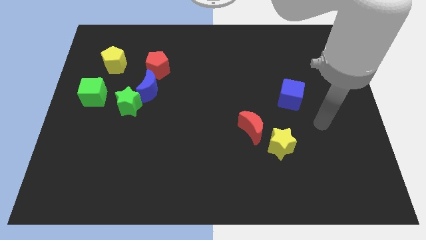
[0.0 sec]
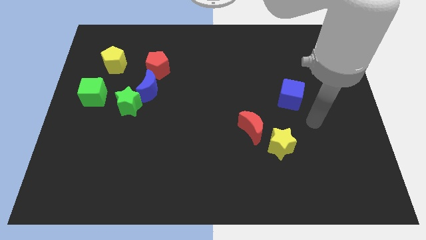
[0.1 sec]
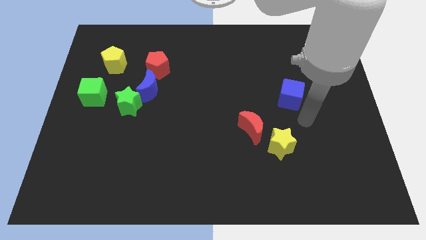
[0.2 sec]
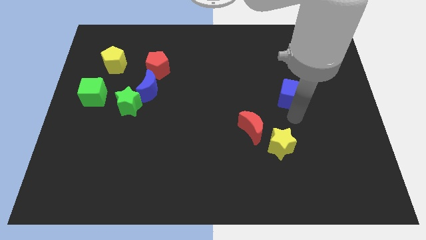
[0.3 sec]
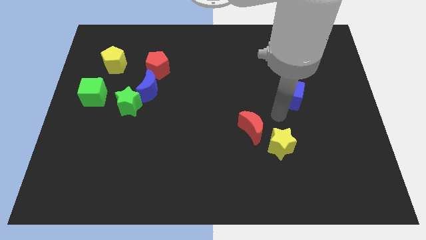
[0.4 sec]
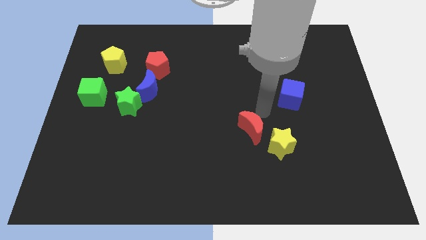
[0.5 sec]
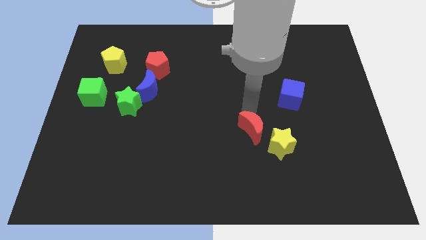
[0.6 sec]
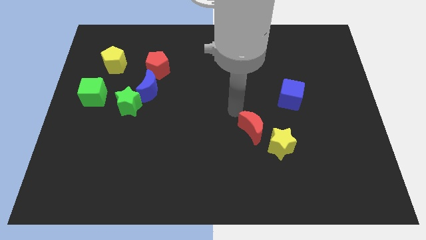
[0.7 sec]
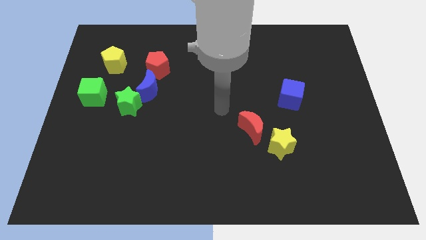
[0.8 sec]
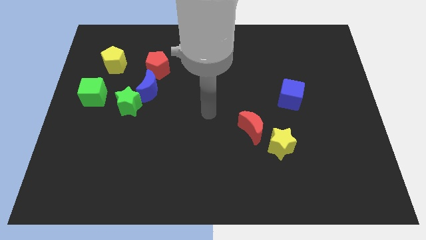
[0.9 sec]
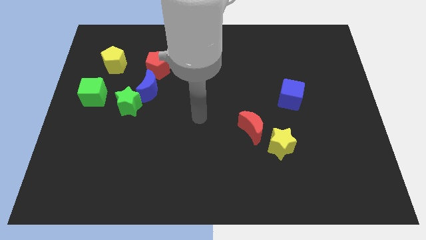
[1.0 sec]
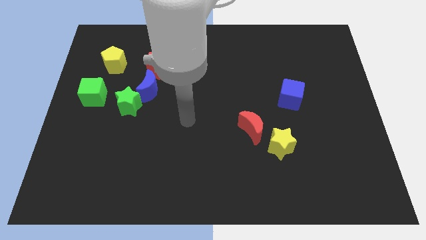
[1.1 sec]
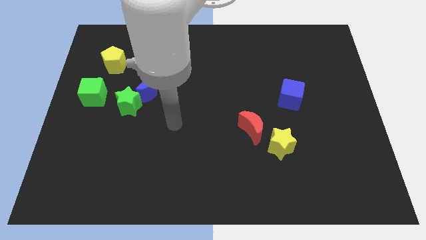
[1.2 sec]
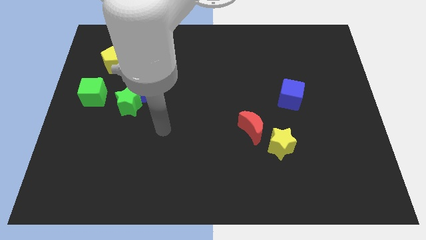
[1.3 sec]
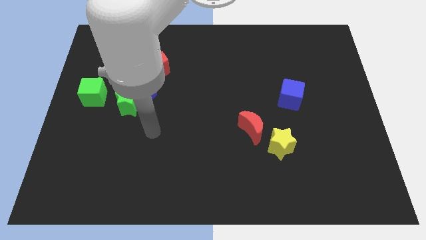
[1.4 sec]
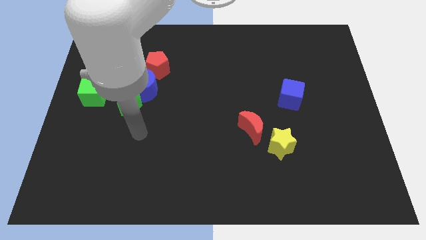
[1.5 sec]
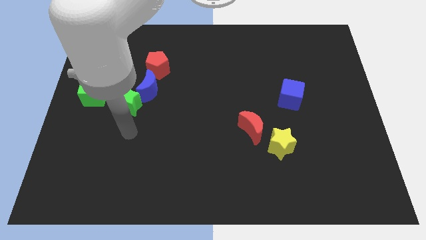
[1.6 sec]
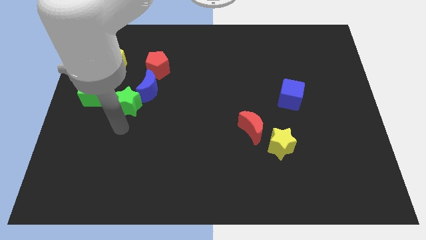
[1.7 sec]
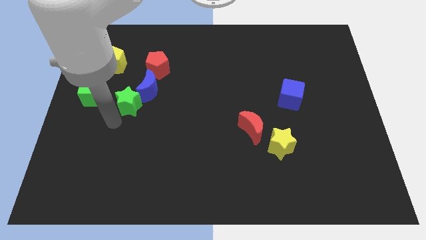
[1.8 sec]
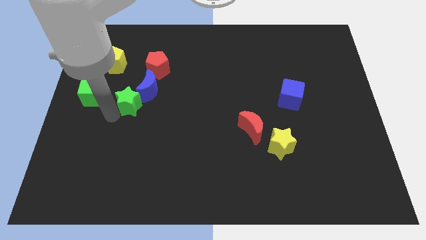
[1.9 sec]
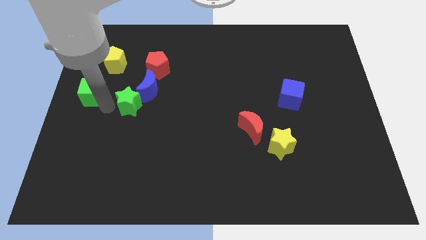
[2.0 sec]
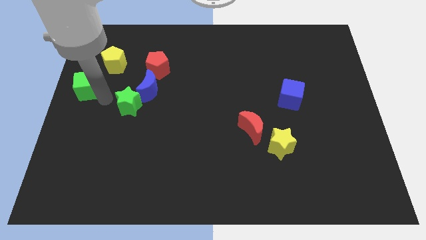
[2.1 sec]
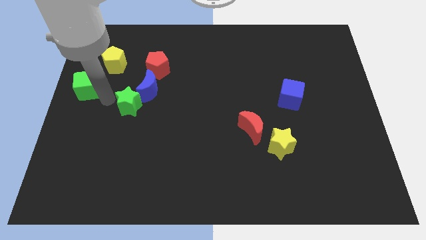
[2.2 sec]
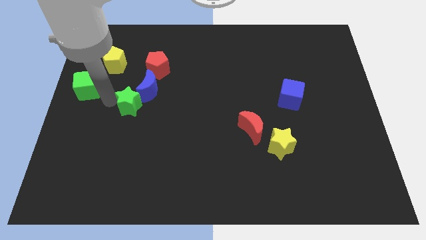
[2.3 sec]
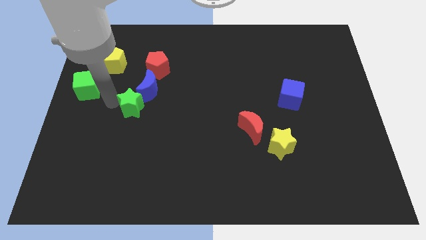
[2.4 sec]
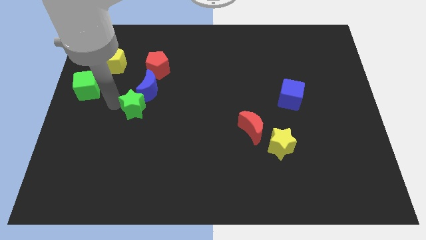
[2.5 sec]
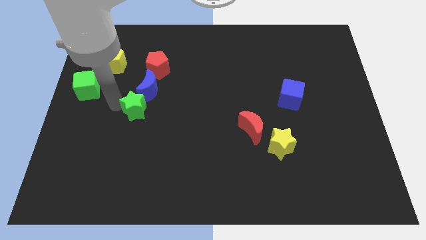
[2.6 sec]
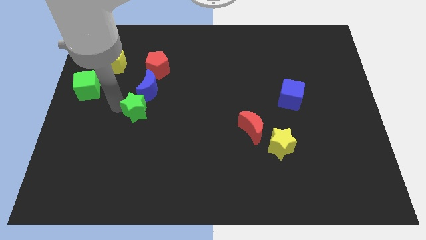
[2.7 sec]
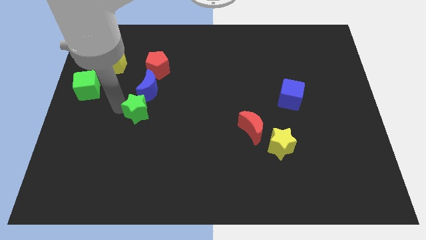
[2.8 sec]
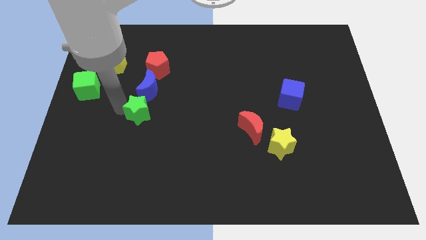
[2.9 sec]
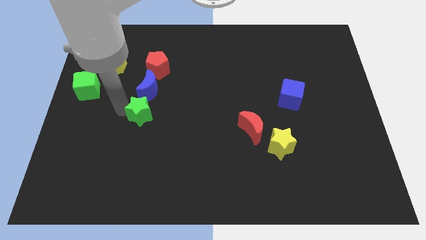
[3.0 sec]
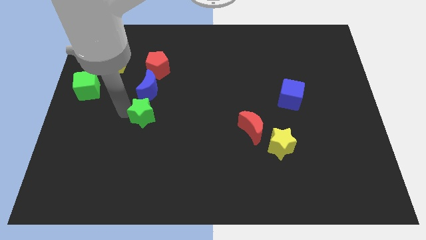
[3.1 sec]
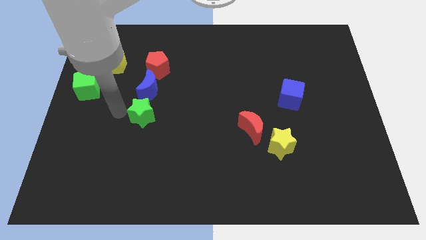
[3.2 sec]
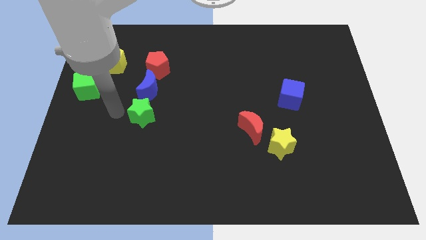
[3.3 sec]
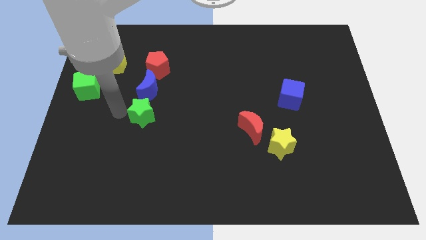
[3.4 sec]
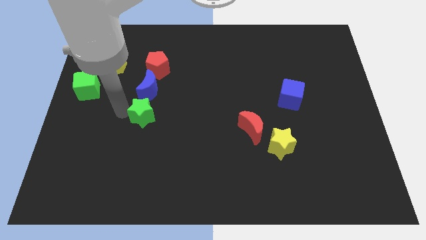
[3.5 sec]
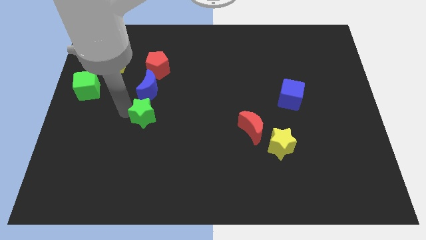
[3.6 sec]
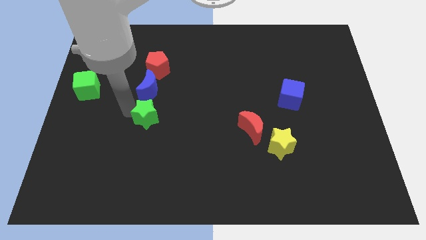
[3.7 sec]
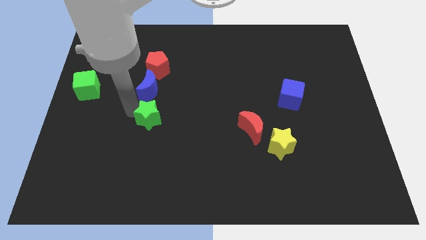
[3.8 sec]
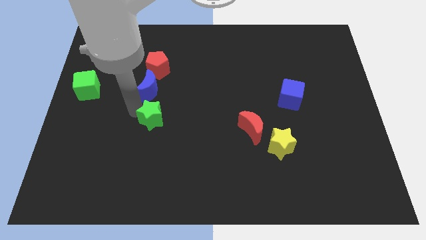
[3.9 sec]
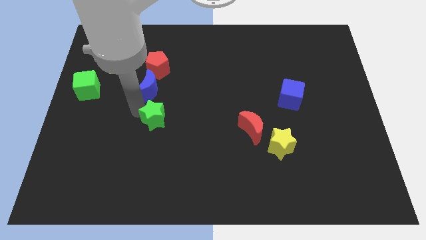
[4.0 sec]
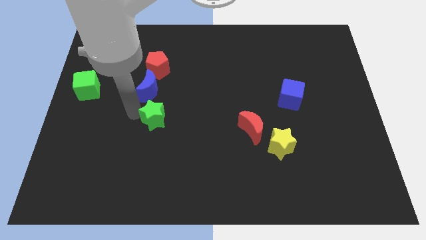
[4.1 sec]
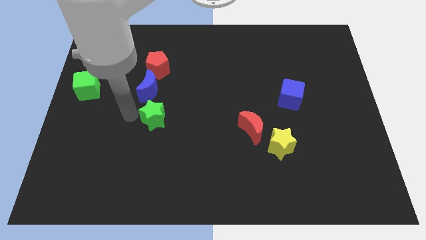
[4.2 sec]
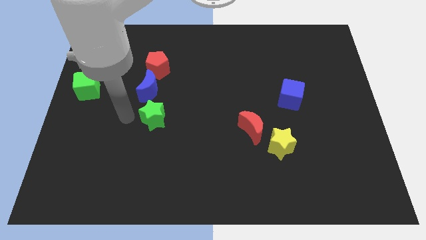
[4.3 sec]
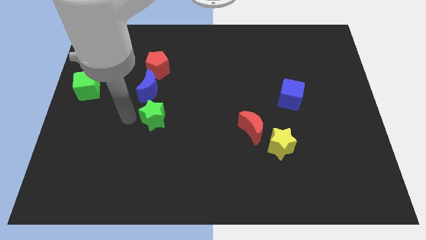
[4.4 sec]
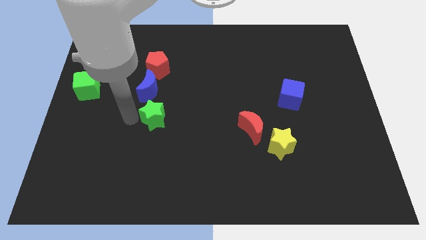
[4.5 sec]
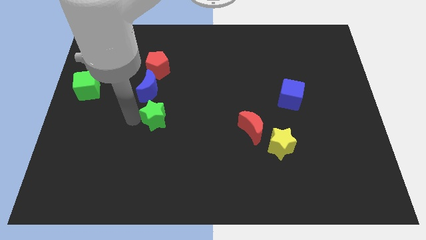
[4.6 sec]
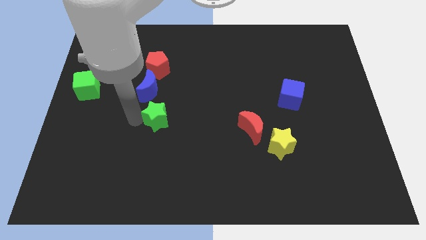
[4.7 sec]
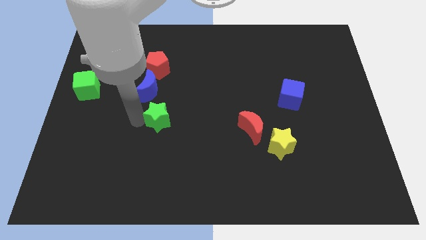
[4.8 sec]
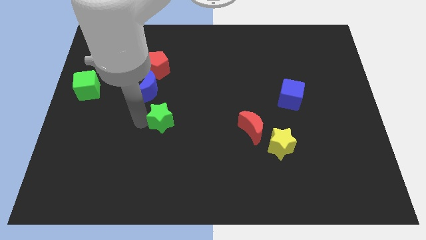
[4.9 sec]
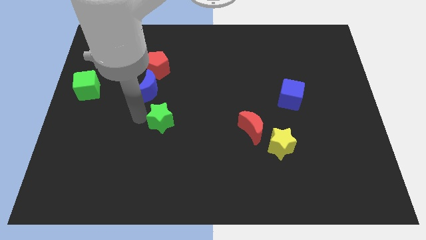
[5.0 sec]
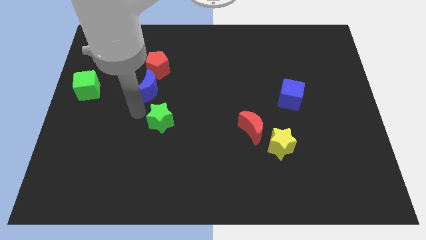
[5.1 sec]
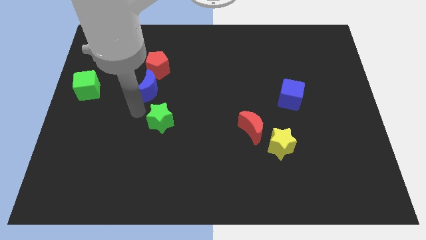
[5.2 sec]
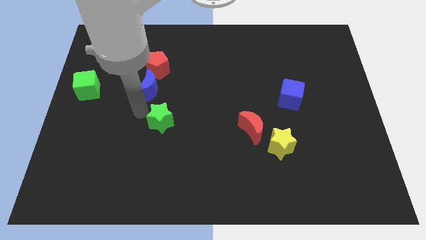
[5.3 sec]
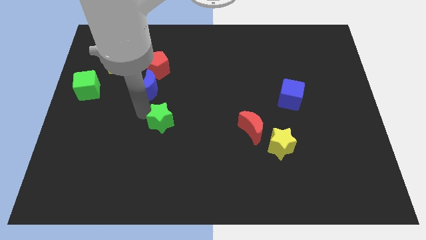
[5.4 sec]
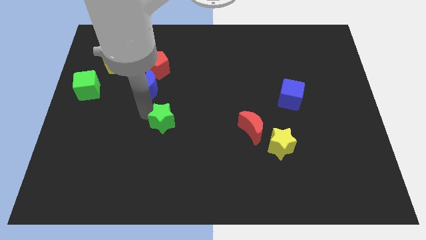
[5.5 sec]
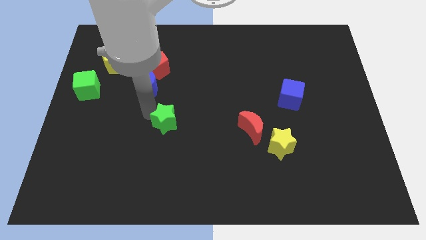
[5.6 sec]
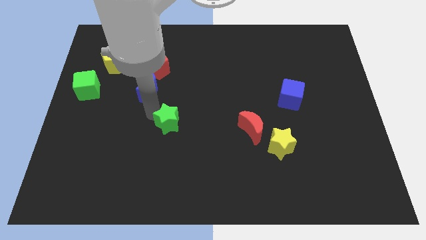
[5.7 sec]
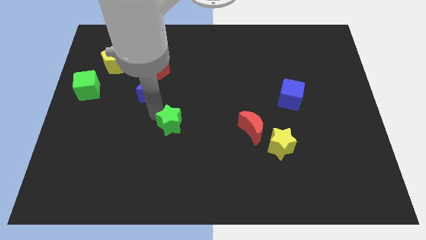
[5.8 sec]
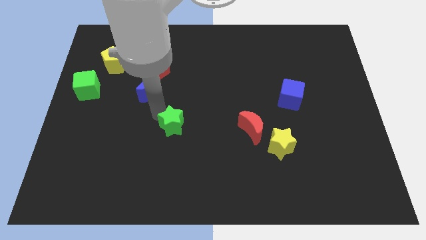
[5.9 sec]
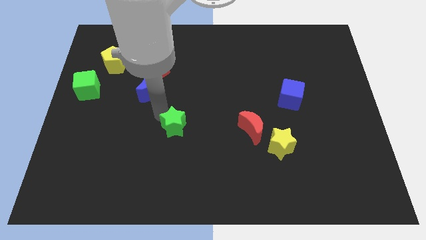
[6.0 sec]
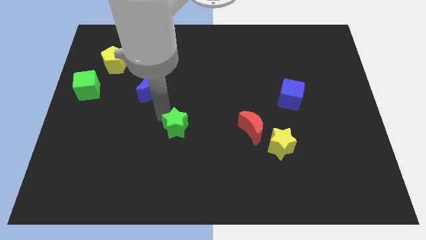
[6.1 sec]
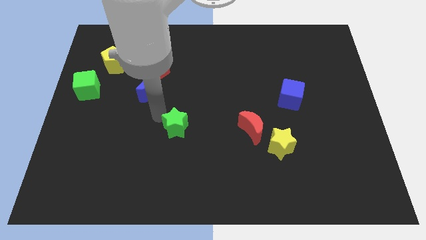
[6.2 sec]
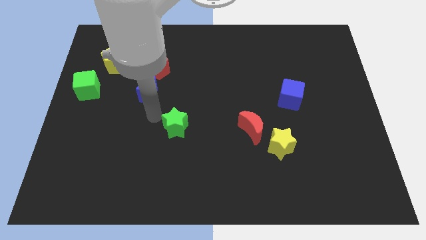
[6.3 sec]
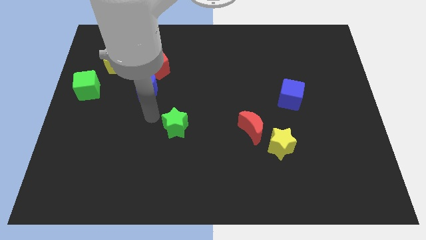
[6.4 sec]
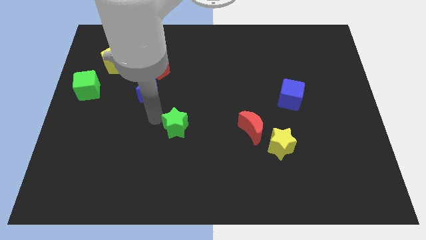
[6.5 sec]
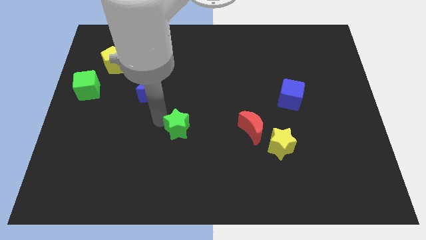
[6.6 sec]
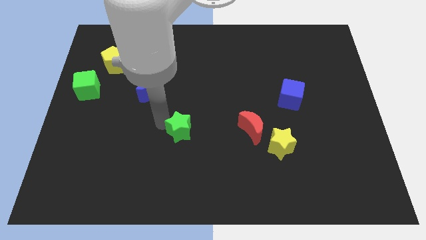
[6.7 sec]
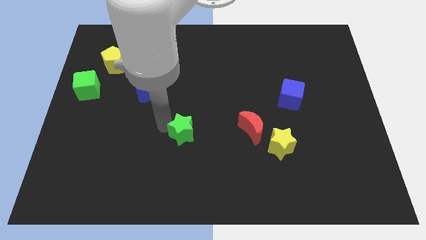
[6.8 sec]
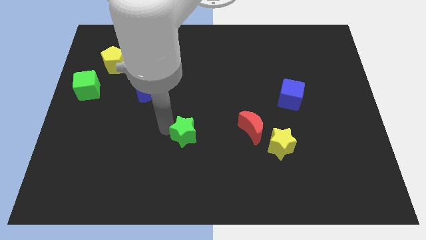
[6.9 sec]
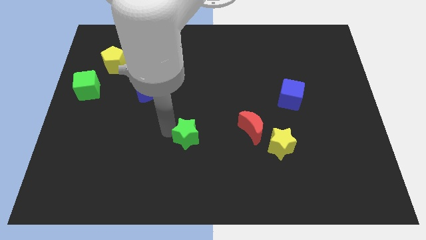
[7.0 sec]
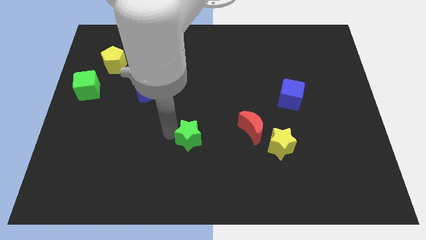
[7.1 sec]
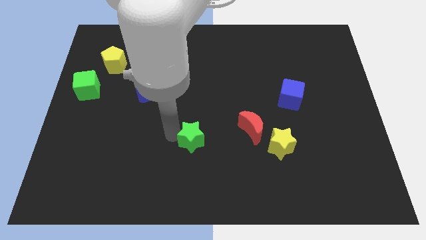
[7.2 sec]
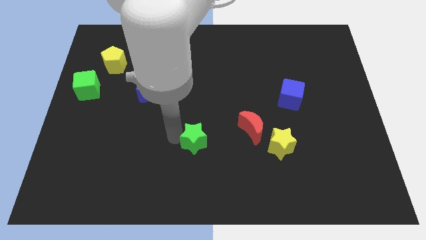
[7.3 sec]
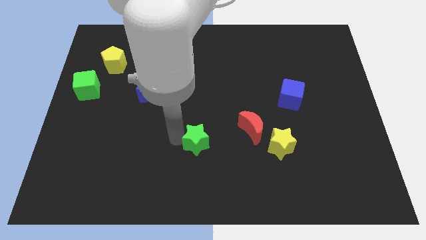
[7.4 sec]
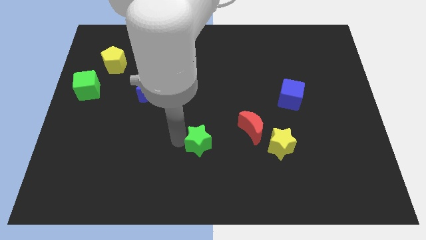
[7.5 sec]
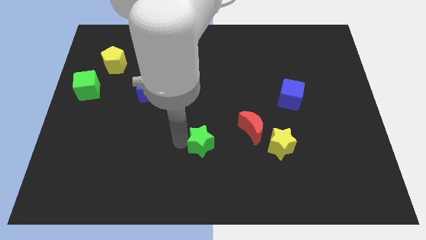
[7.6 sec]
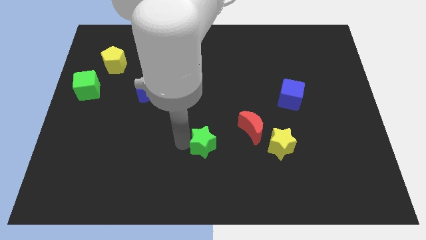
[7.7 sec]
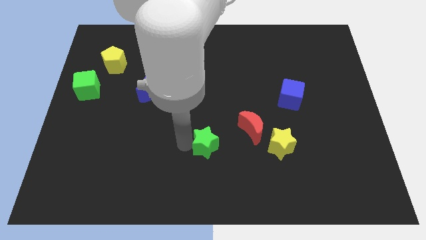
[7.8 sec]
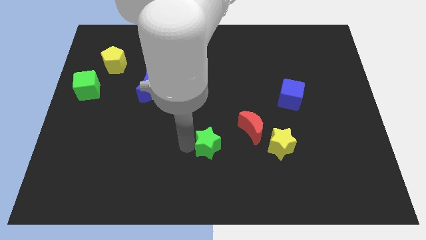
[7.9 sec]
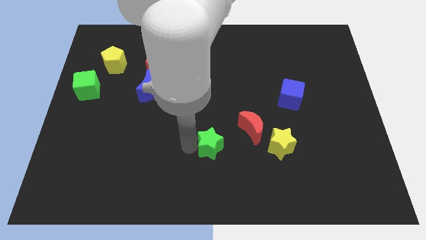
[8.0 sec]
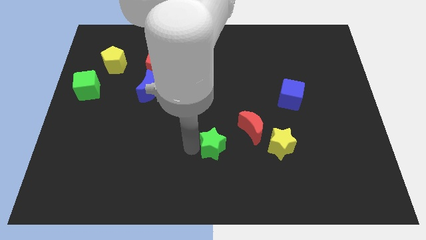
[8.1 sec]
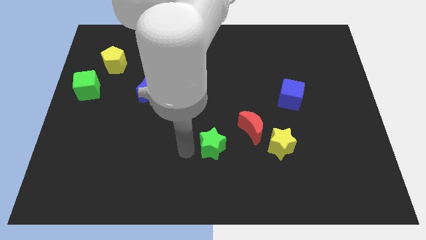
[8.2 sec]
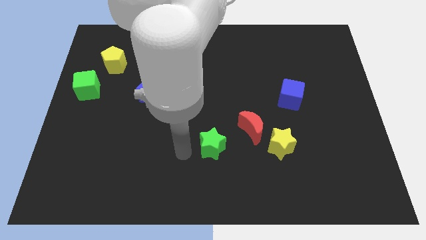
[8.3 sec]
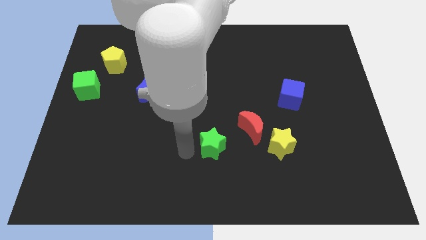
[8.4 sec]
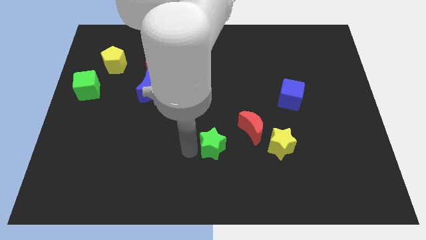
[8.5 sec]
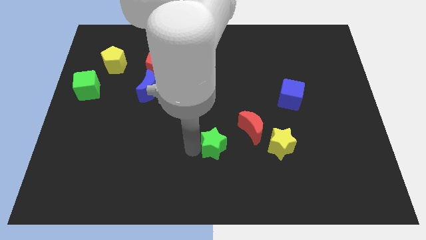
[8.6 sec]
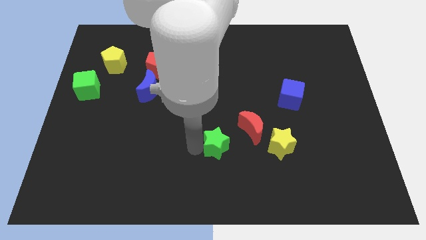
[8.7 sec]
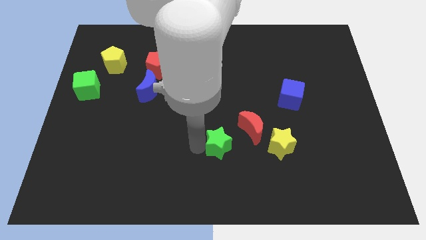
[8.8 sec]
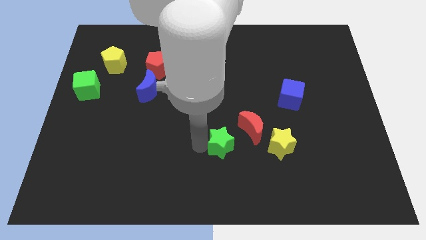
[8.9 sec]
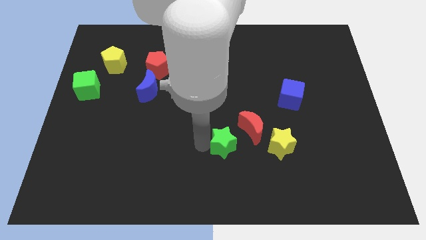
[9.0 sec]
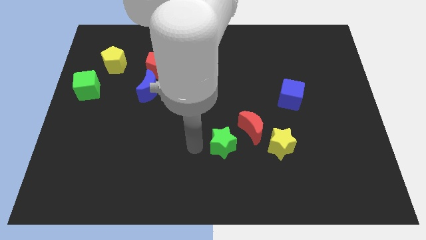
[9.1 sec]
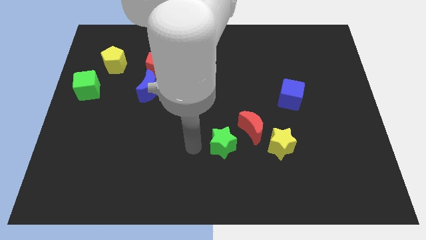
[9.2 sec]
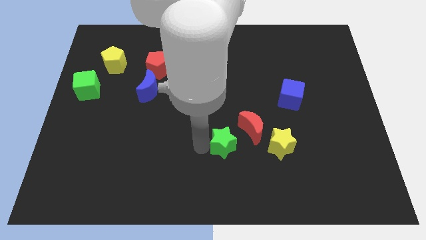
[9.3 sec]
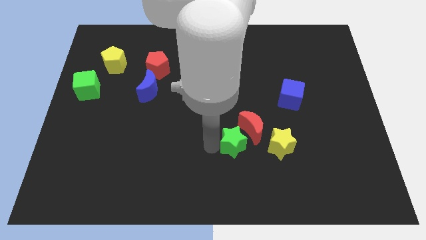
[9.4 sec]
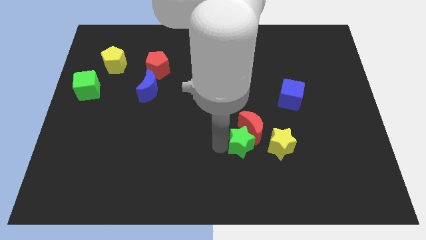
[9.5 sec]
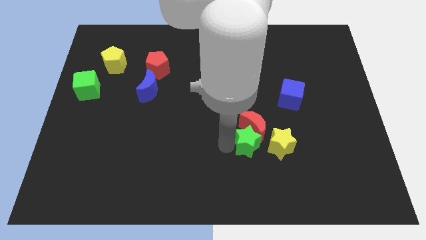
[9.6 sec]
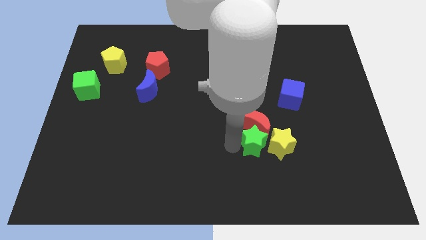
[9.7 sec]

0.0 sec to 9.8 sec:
push the green star towards the yellow star
